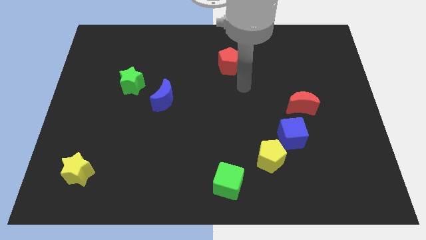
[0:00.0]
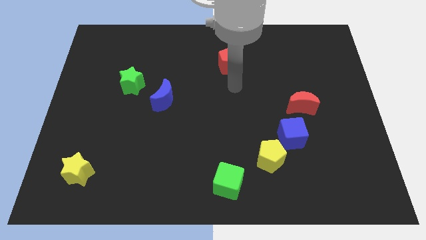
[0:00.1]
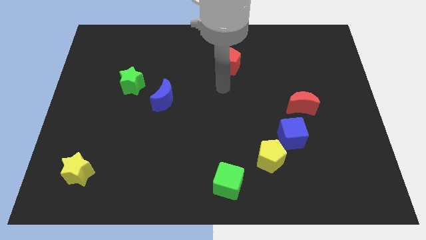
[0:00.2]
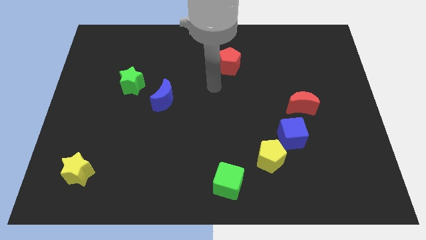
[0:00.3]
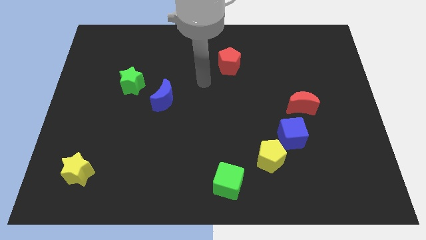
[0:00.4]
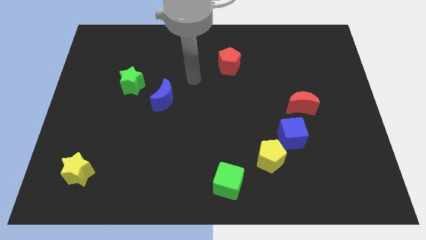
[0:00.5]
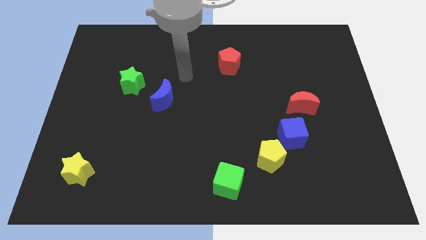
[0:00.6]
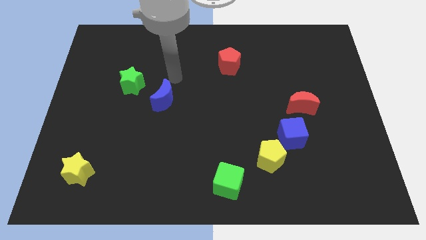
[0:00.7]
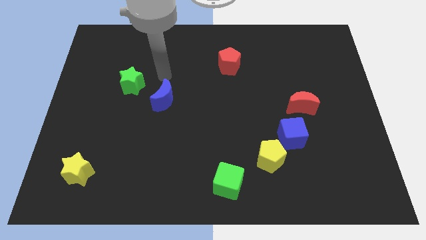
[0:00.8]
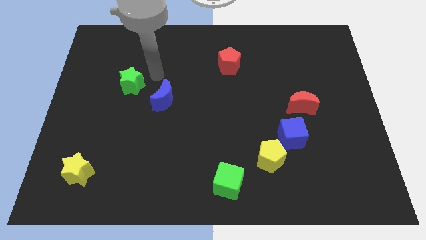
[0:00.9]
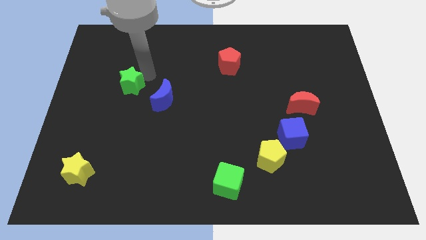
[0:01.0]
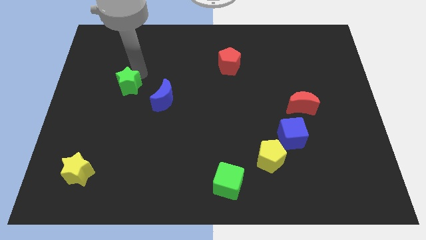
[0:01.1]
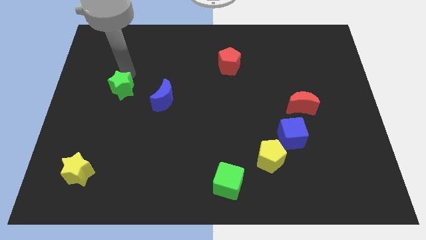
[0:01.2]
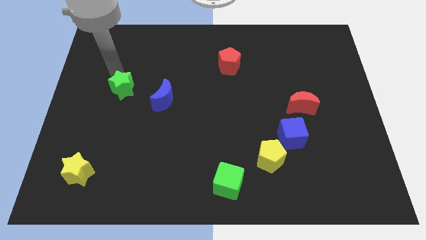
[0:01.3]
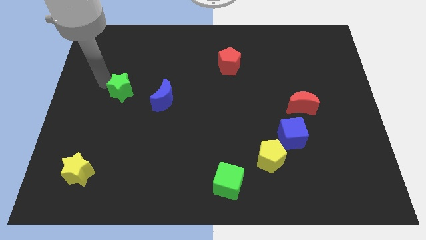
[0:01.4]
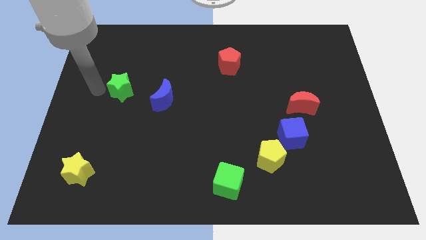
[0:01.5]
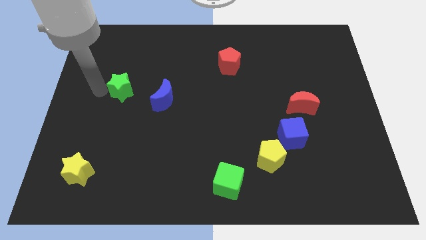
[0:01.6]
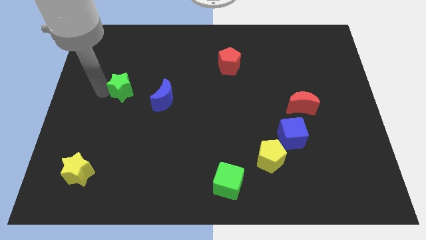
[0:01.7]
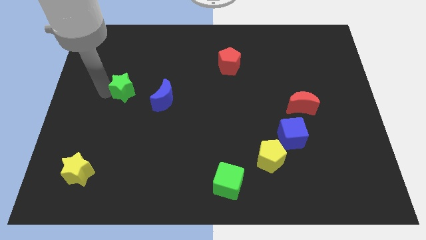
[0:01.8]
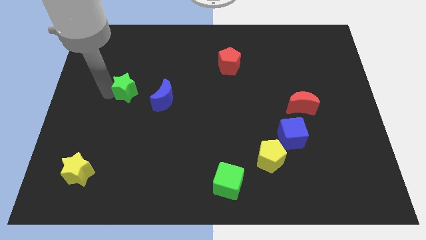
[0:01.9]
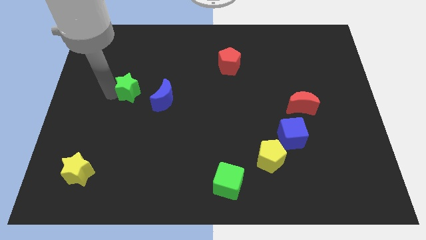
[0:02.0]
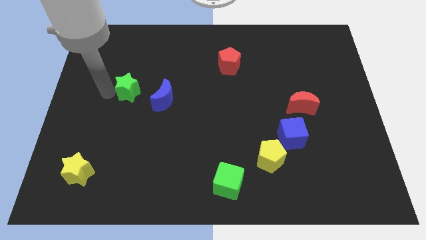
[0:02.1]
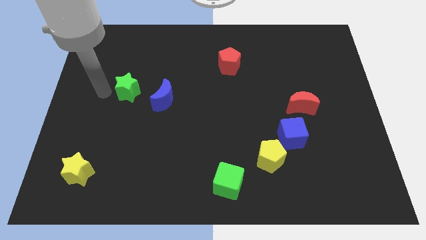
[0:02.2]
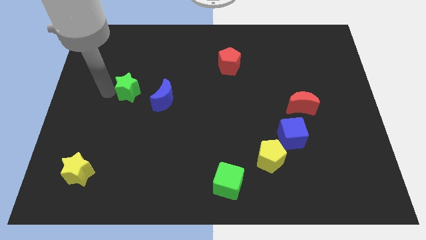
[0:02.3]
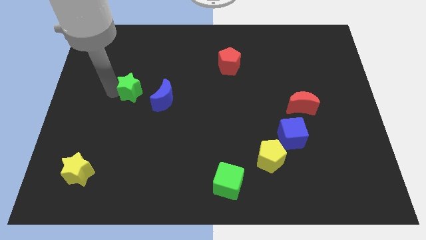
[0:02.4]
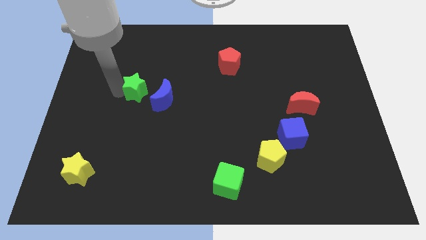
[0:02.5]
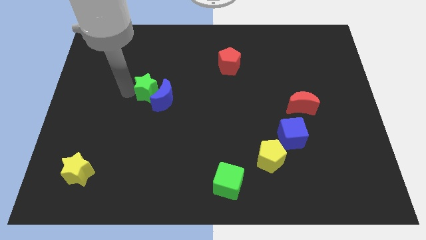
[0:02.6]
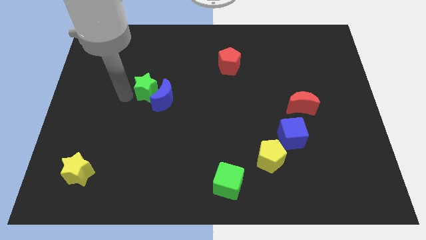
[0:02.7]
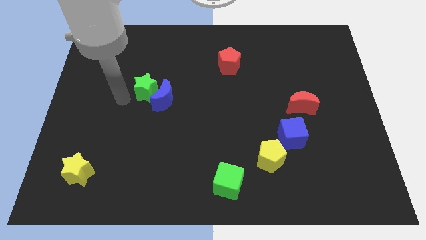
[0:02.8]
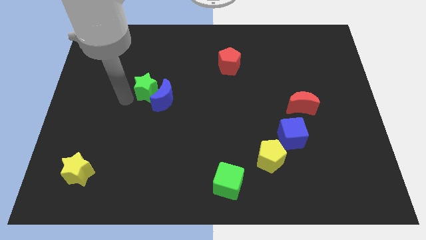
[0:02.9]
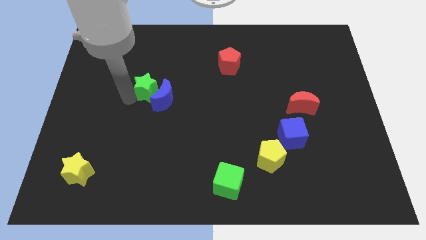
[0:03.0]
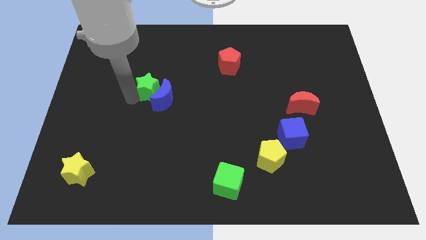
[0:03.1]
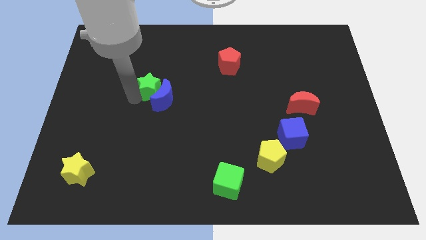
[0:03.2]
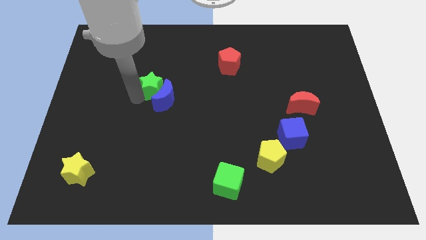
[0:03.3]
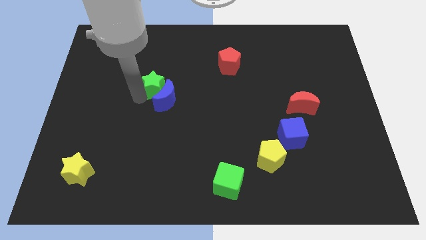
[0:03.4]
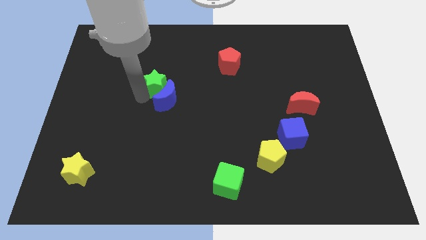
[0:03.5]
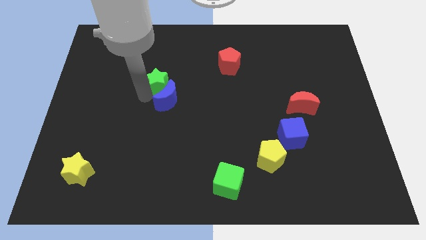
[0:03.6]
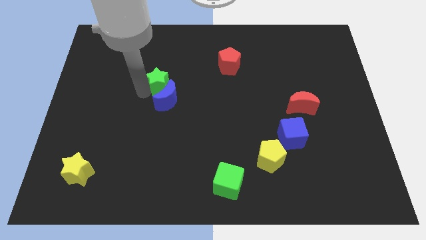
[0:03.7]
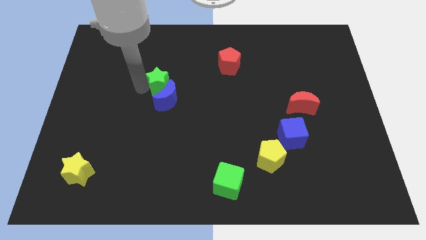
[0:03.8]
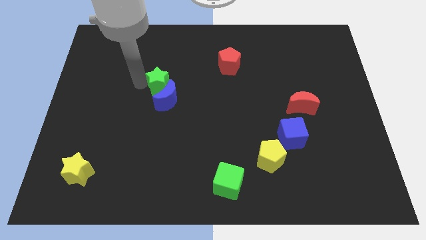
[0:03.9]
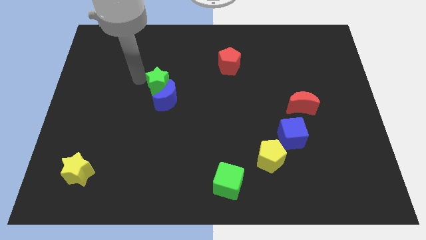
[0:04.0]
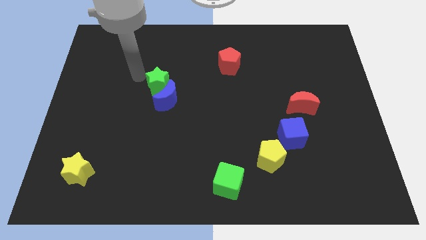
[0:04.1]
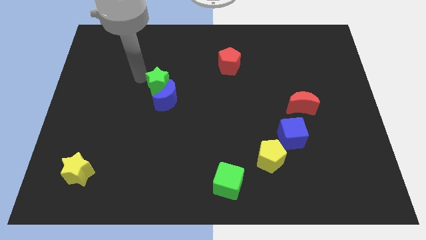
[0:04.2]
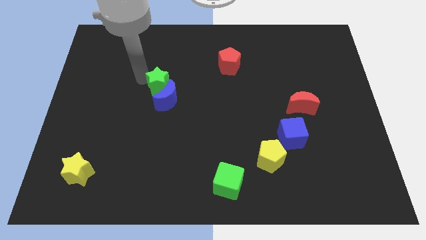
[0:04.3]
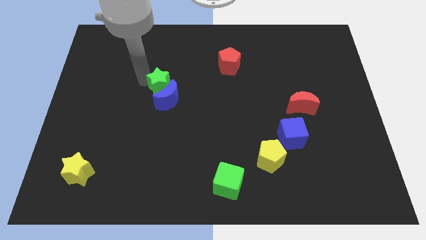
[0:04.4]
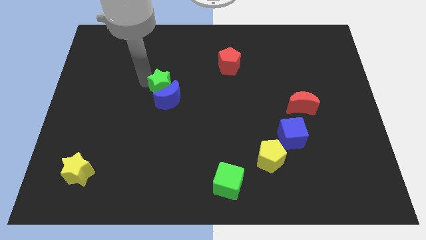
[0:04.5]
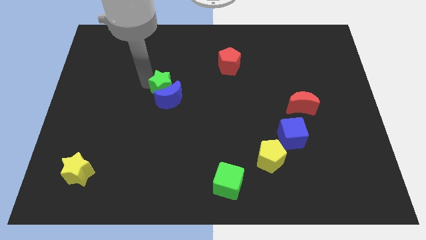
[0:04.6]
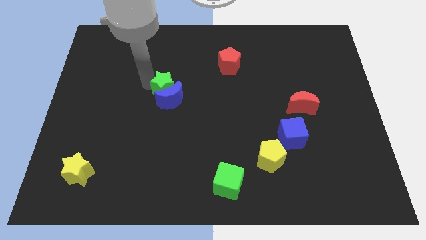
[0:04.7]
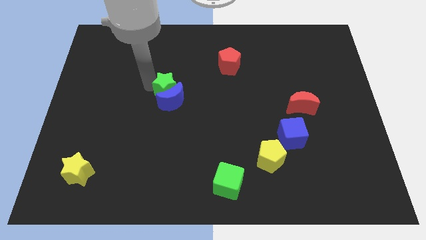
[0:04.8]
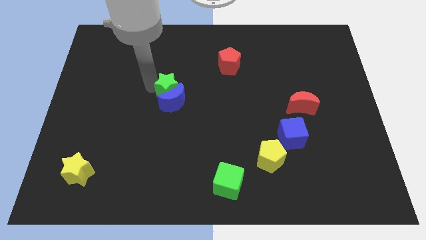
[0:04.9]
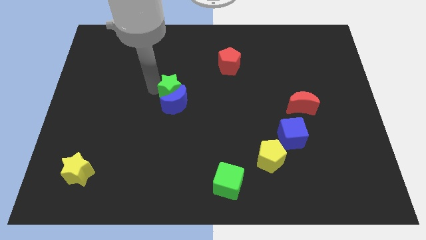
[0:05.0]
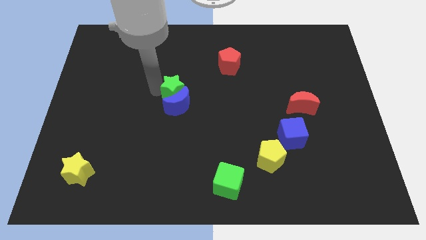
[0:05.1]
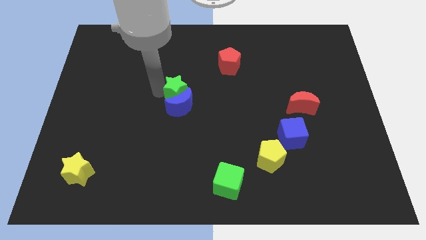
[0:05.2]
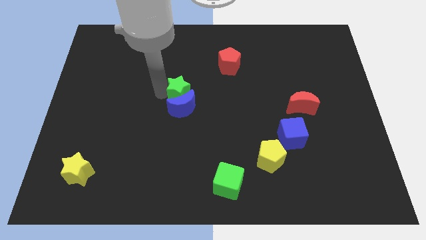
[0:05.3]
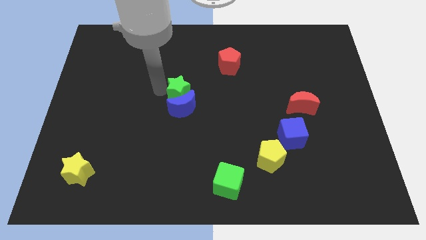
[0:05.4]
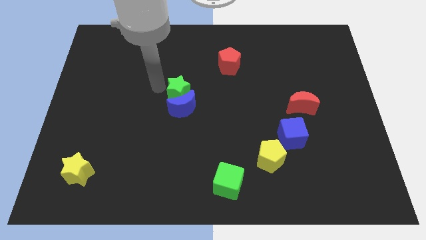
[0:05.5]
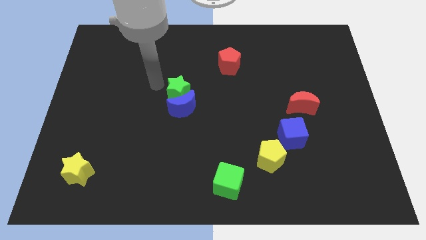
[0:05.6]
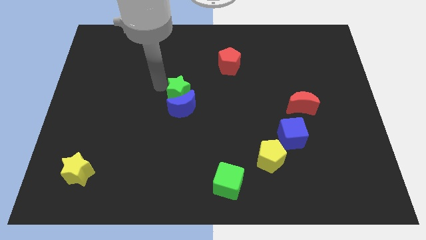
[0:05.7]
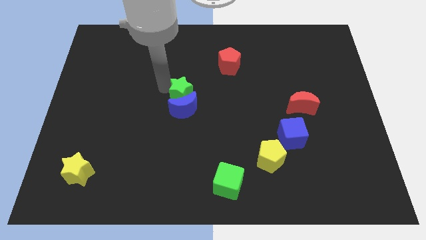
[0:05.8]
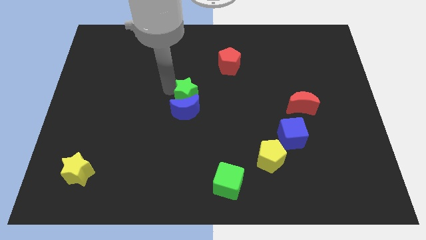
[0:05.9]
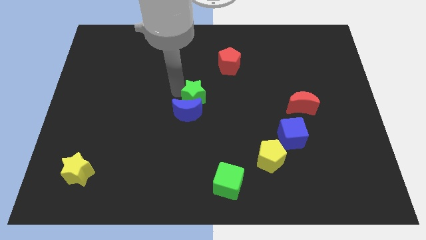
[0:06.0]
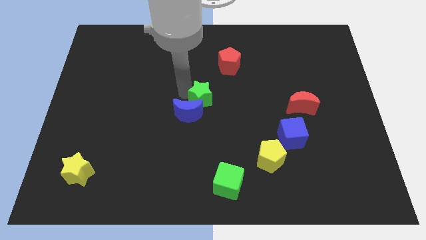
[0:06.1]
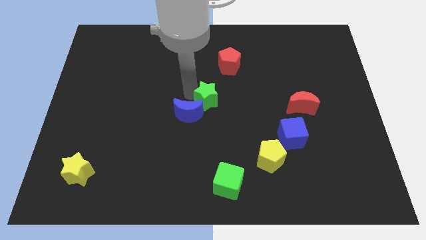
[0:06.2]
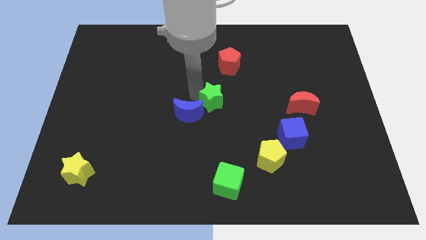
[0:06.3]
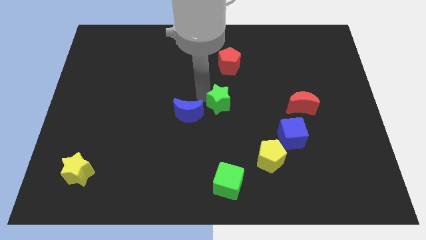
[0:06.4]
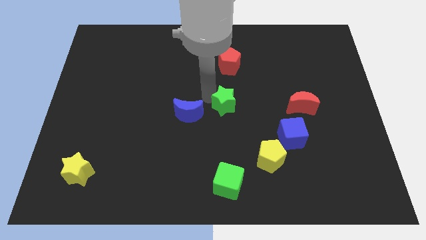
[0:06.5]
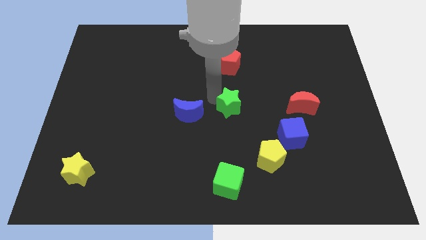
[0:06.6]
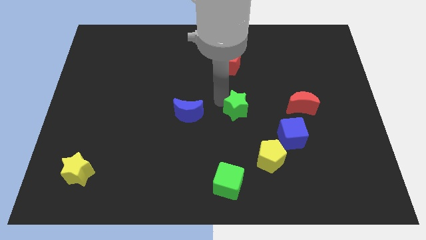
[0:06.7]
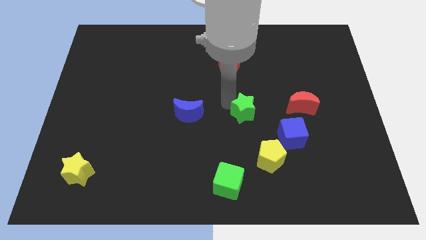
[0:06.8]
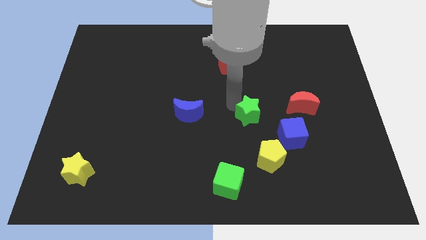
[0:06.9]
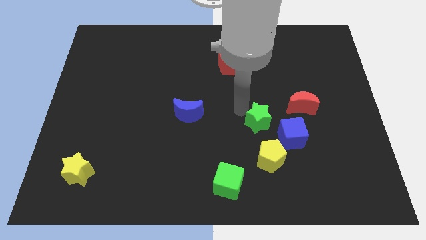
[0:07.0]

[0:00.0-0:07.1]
push the green star diagonally down and to the left of the red moon
